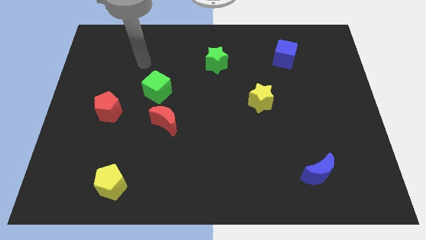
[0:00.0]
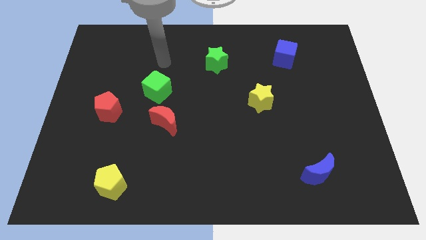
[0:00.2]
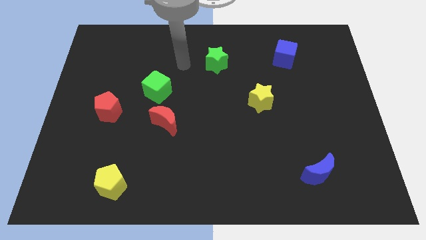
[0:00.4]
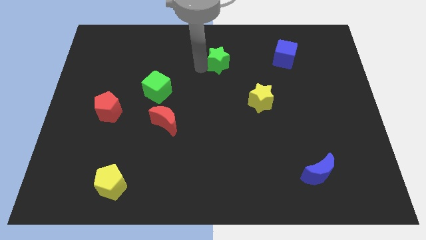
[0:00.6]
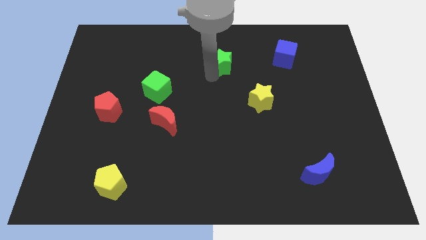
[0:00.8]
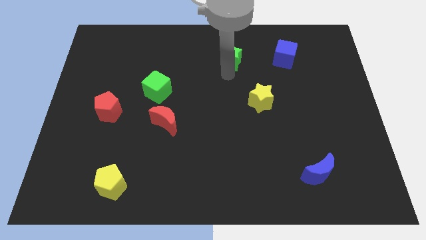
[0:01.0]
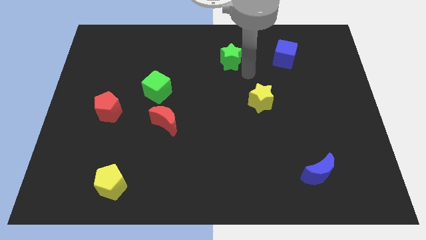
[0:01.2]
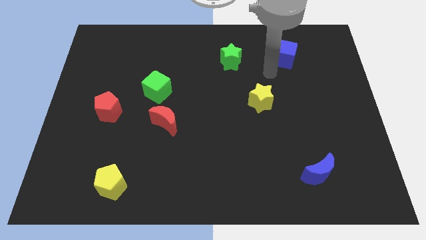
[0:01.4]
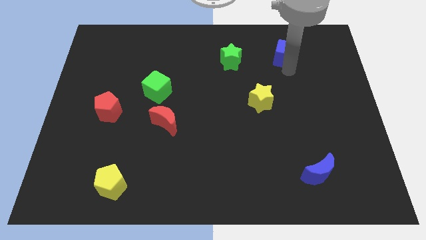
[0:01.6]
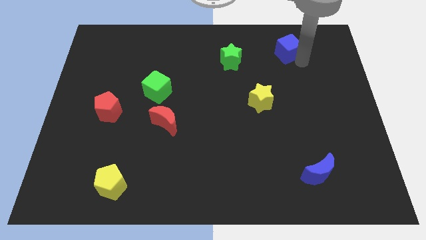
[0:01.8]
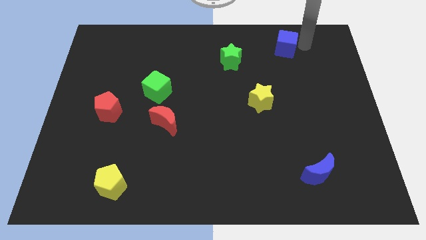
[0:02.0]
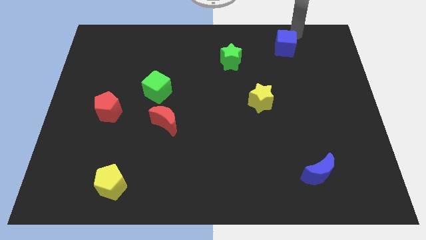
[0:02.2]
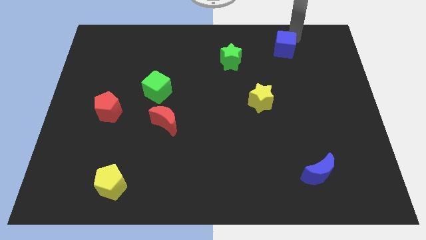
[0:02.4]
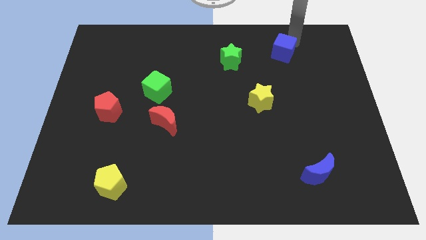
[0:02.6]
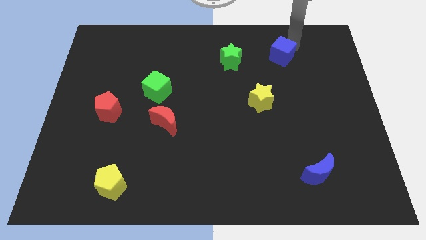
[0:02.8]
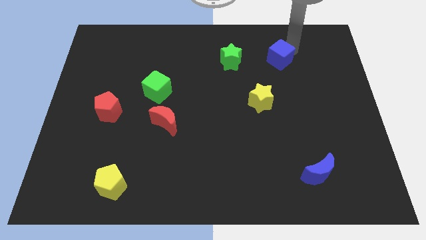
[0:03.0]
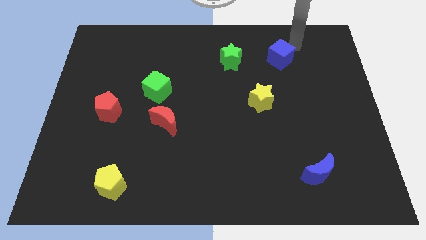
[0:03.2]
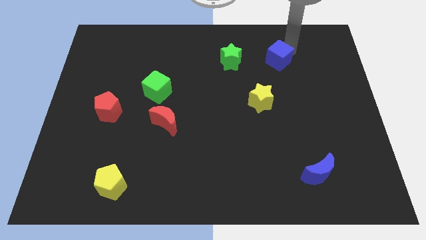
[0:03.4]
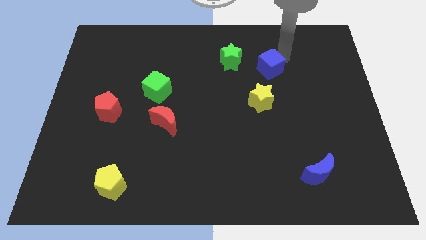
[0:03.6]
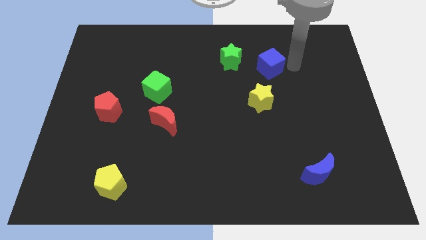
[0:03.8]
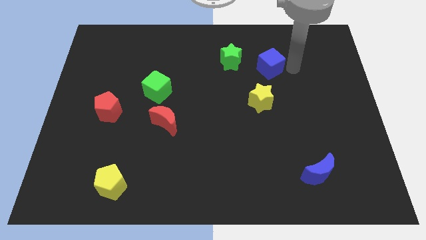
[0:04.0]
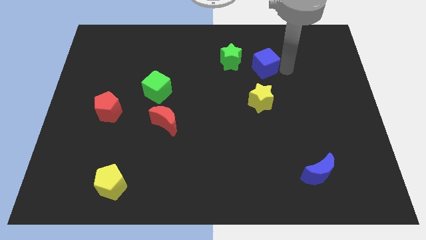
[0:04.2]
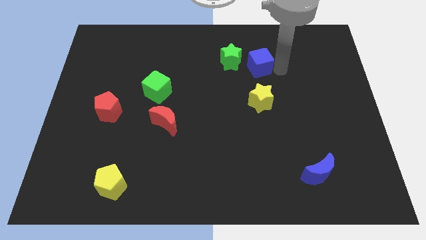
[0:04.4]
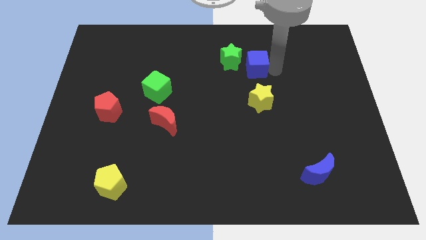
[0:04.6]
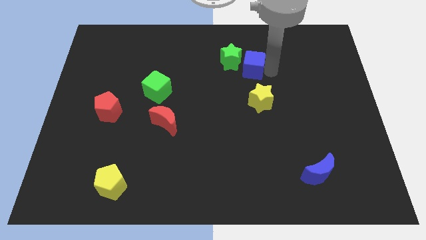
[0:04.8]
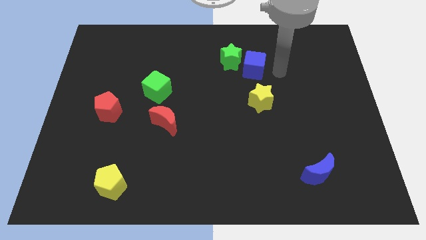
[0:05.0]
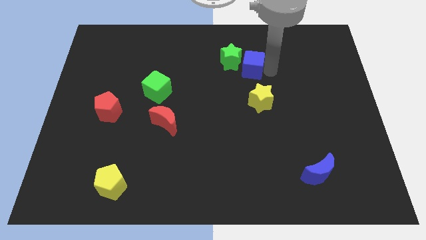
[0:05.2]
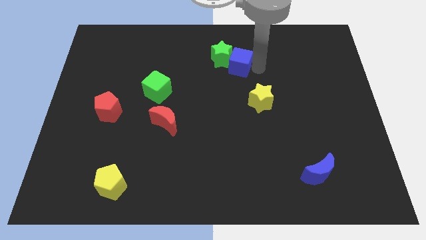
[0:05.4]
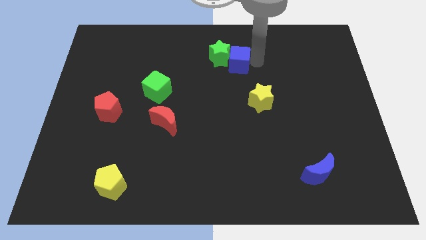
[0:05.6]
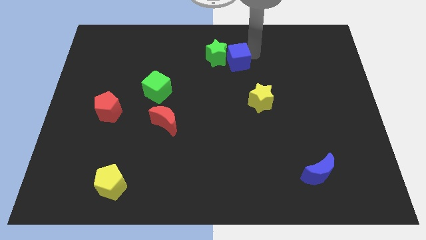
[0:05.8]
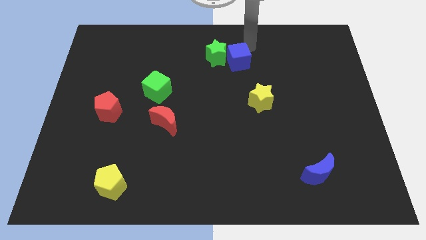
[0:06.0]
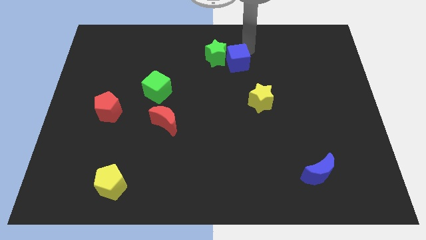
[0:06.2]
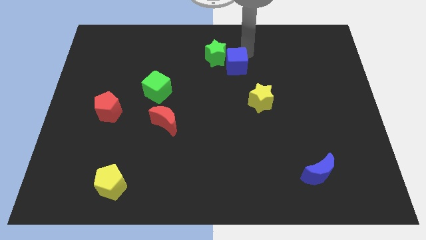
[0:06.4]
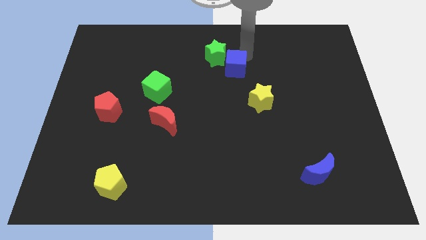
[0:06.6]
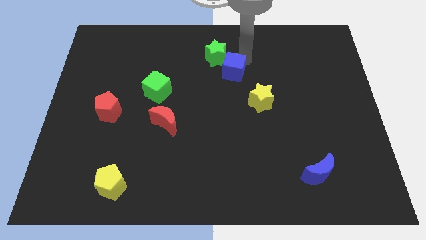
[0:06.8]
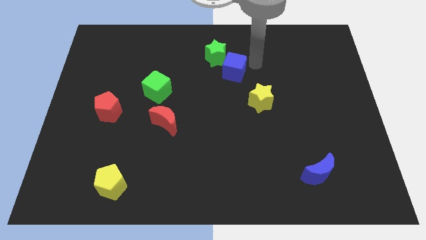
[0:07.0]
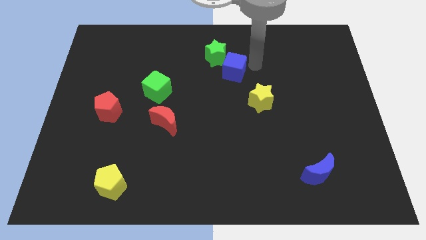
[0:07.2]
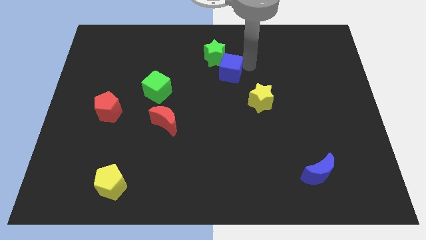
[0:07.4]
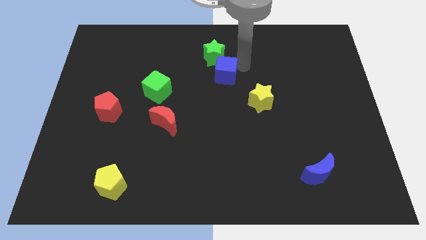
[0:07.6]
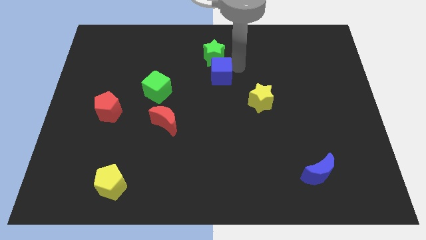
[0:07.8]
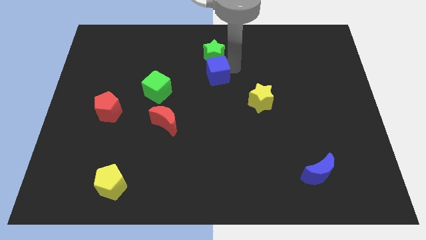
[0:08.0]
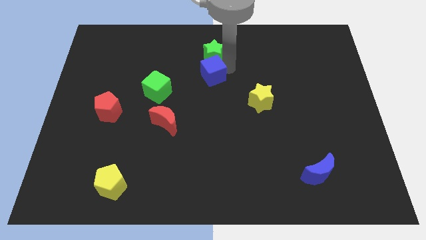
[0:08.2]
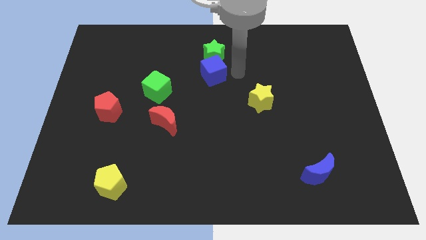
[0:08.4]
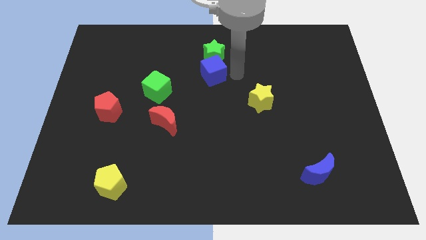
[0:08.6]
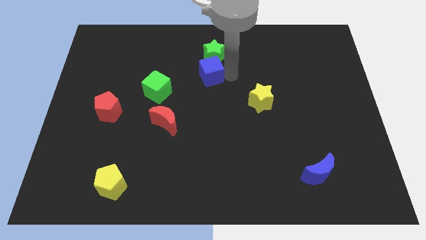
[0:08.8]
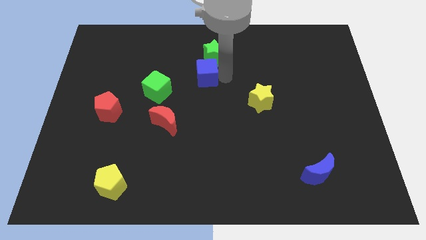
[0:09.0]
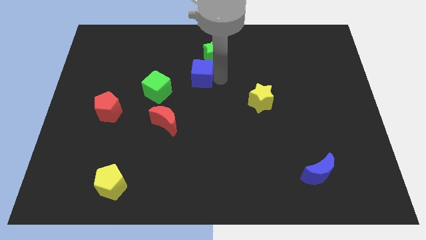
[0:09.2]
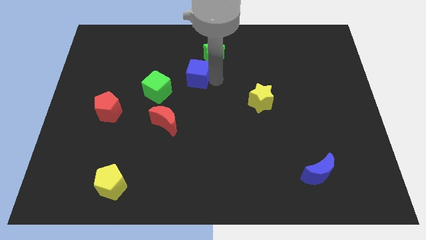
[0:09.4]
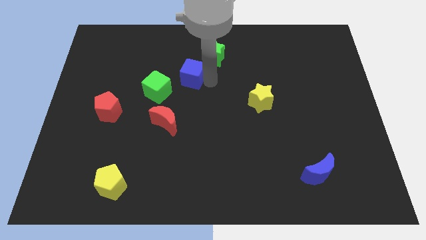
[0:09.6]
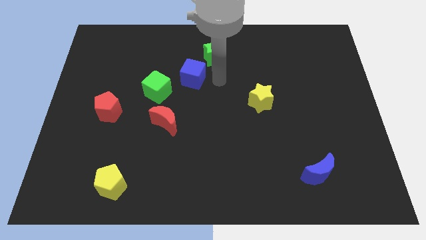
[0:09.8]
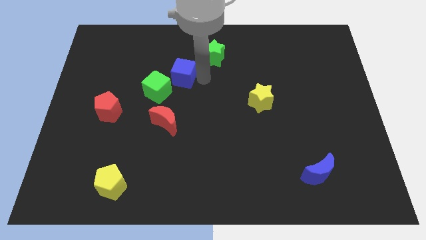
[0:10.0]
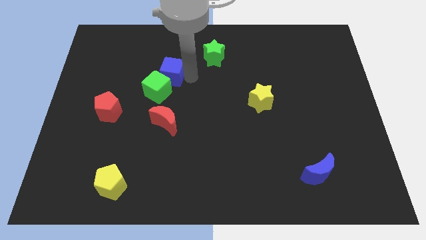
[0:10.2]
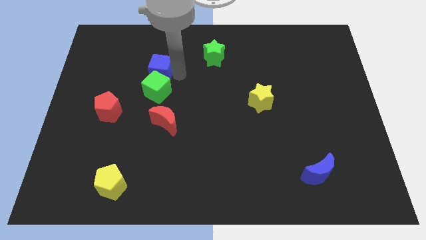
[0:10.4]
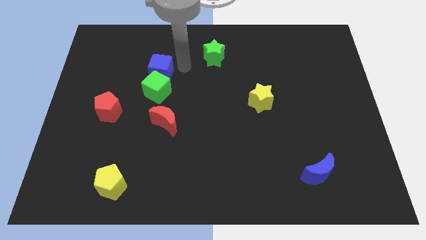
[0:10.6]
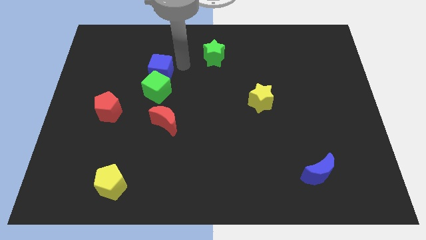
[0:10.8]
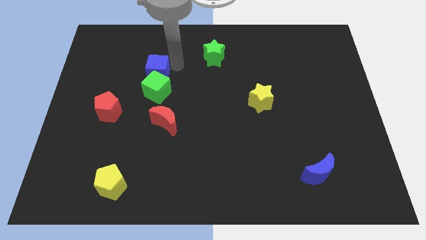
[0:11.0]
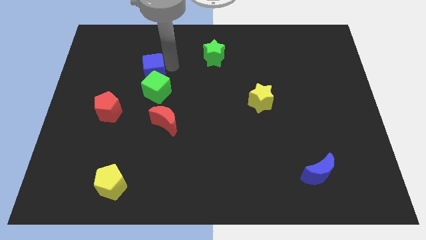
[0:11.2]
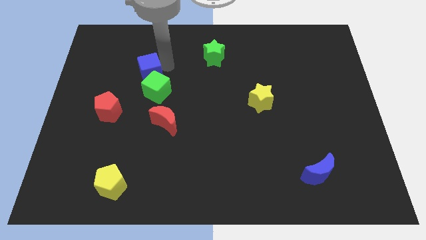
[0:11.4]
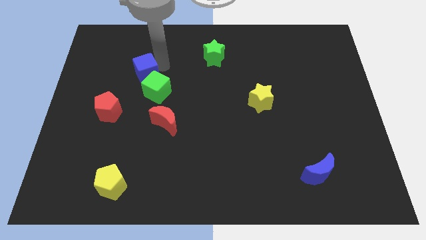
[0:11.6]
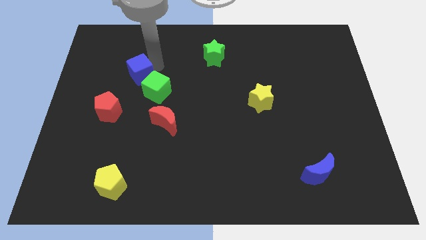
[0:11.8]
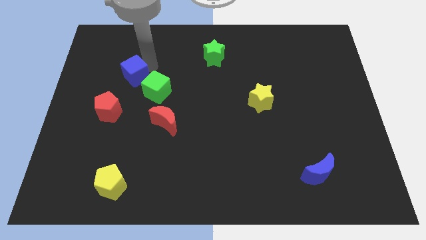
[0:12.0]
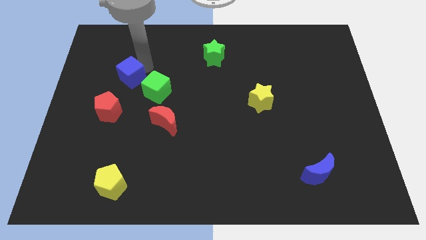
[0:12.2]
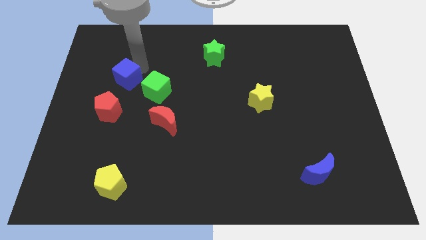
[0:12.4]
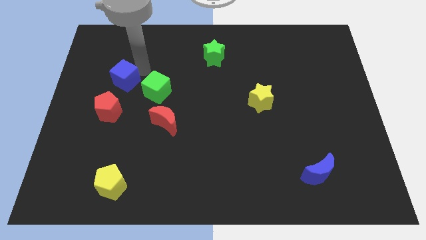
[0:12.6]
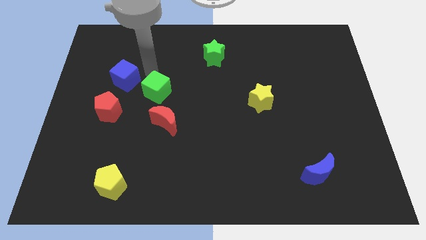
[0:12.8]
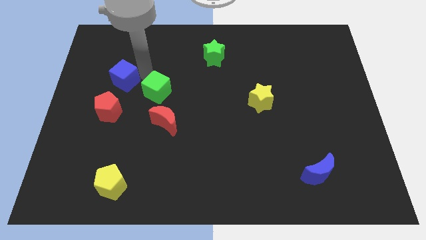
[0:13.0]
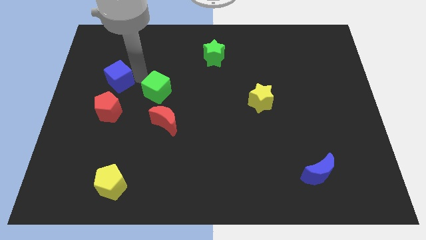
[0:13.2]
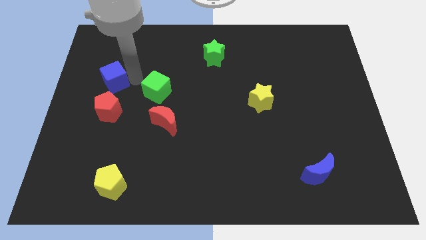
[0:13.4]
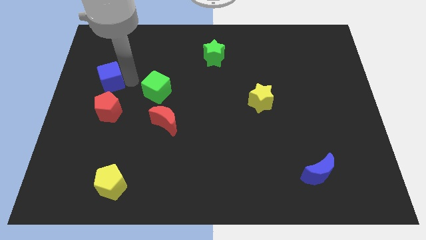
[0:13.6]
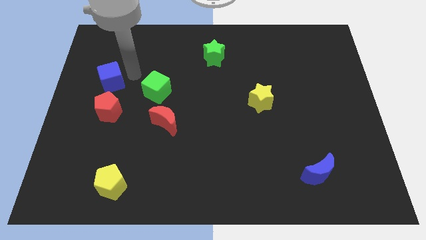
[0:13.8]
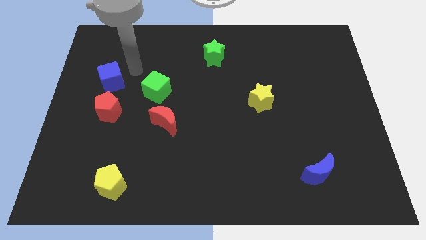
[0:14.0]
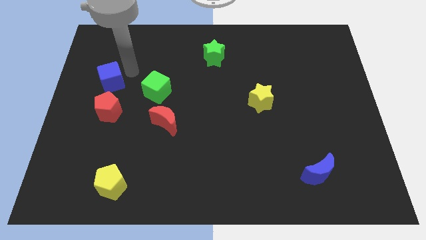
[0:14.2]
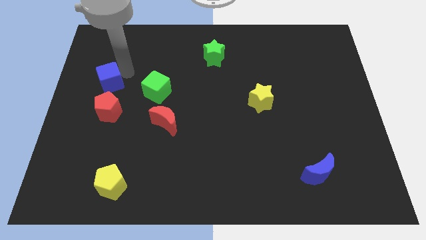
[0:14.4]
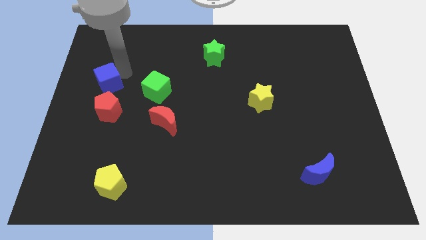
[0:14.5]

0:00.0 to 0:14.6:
put the blue cube to the center left
